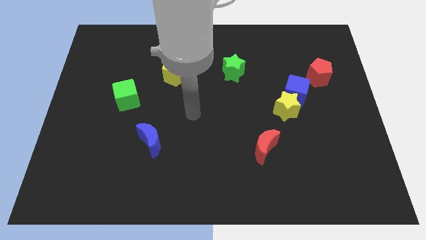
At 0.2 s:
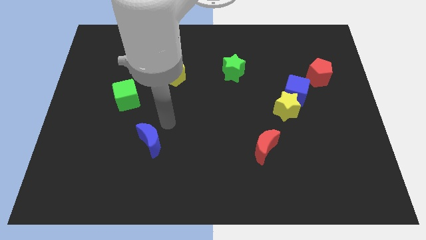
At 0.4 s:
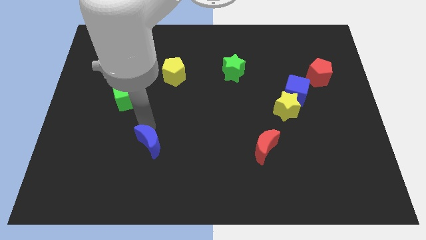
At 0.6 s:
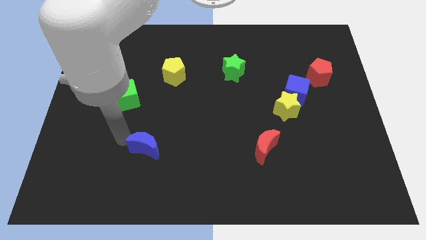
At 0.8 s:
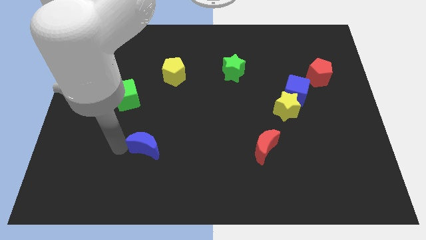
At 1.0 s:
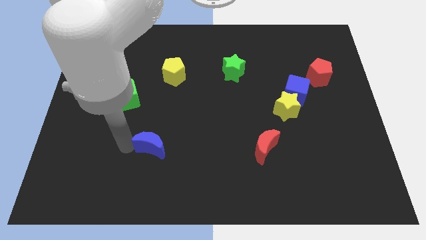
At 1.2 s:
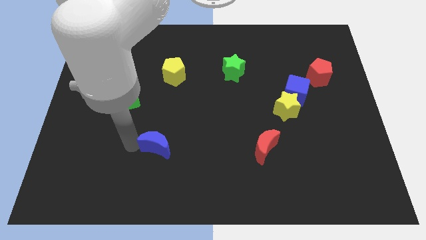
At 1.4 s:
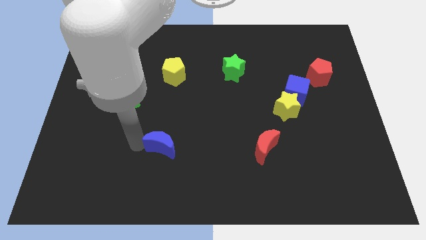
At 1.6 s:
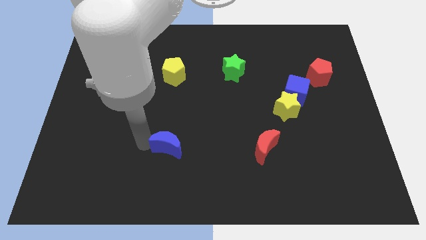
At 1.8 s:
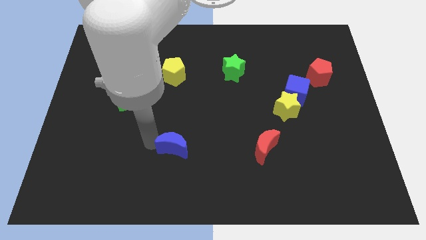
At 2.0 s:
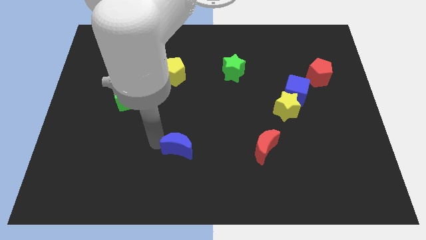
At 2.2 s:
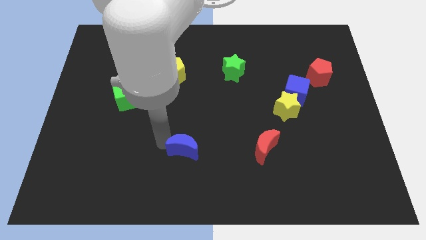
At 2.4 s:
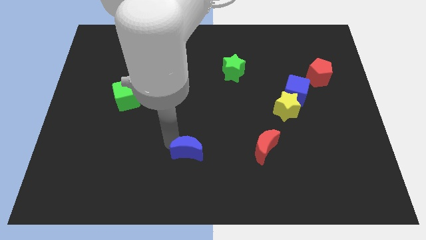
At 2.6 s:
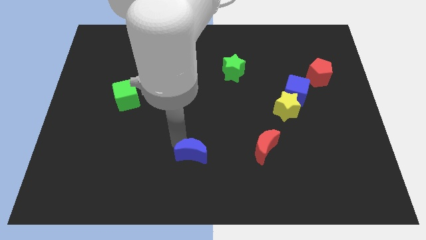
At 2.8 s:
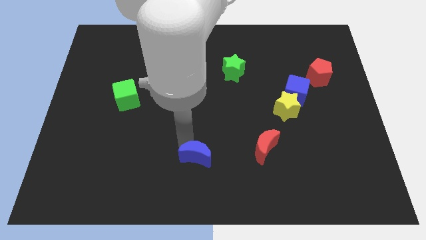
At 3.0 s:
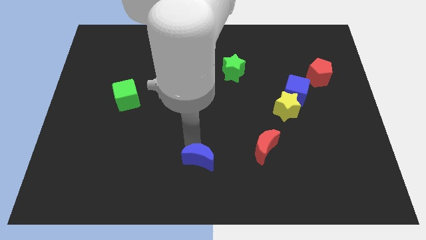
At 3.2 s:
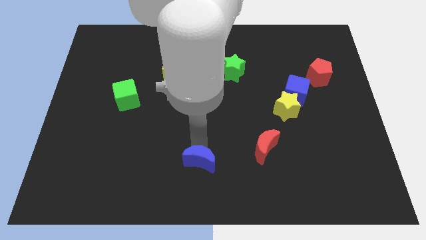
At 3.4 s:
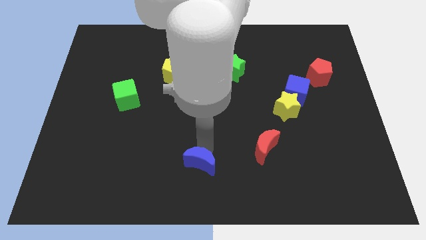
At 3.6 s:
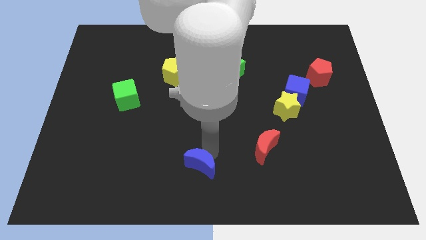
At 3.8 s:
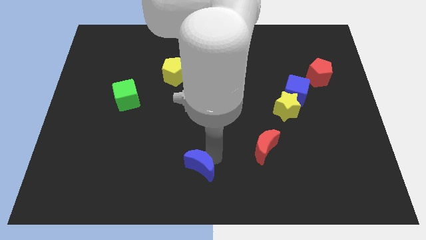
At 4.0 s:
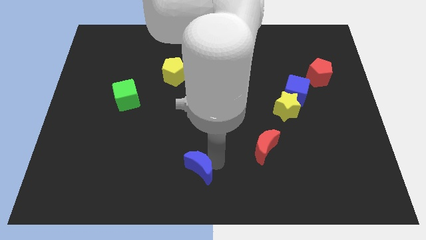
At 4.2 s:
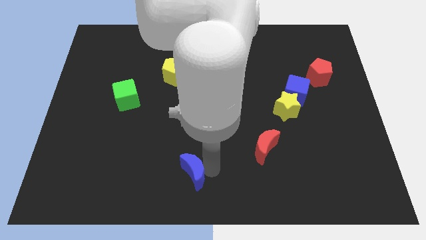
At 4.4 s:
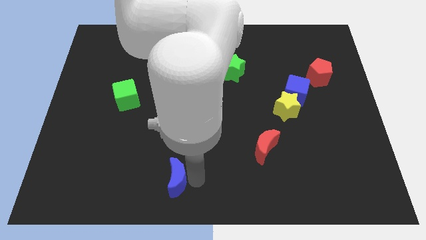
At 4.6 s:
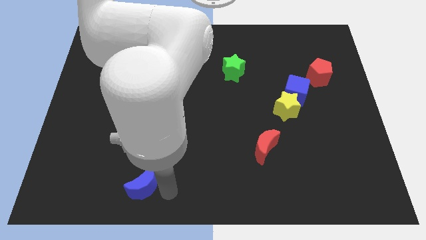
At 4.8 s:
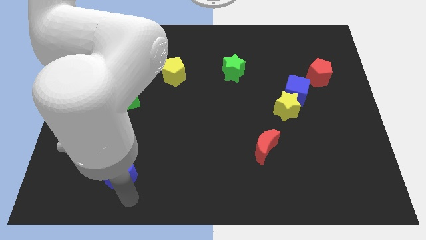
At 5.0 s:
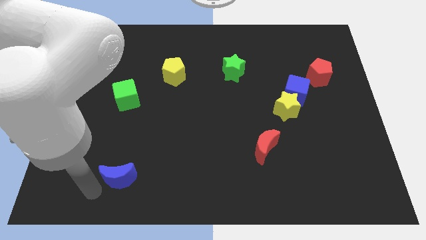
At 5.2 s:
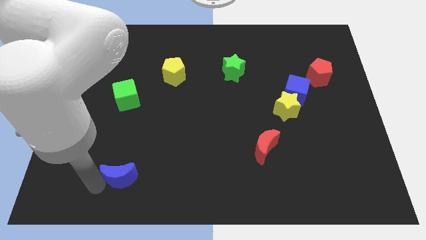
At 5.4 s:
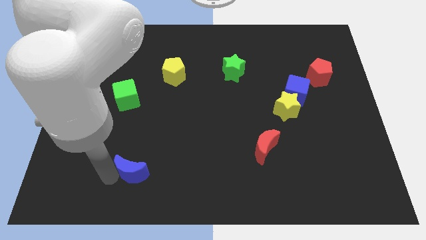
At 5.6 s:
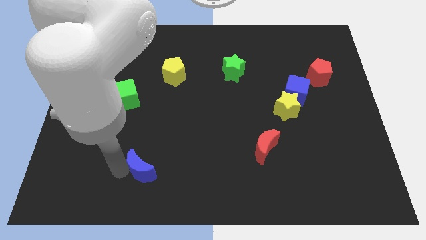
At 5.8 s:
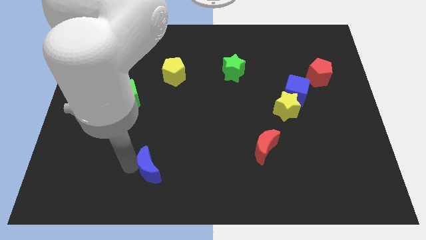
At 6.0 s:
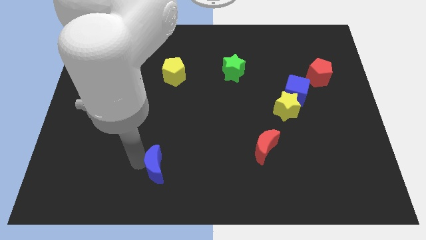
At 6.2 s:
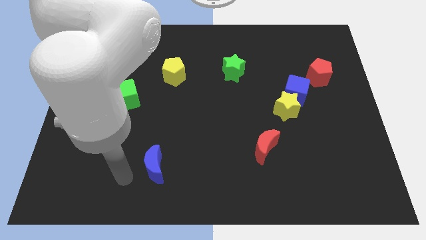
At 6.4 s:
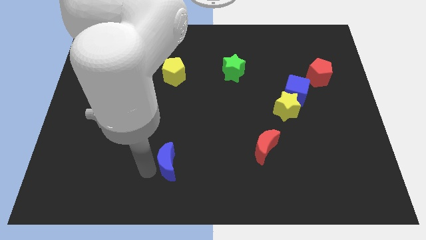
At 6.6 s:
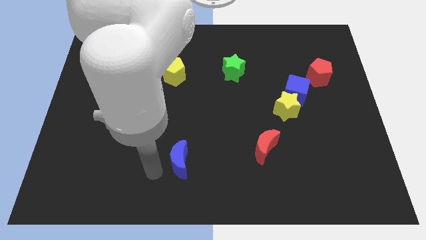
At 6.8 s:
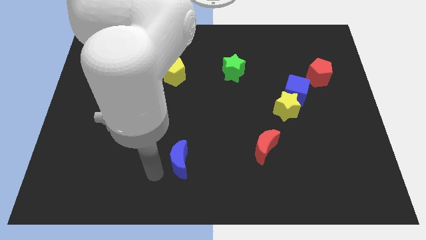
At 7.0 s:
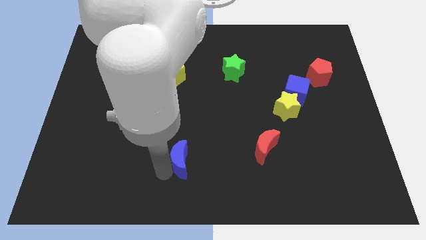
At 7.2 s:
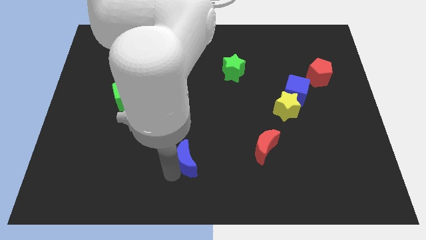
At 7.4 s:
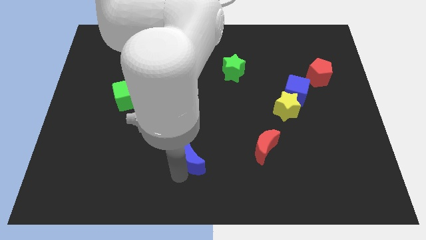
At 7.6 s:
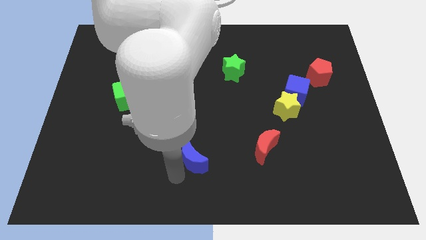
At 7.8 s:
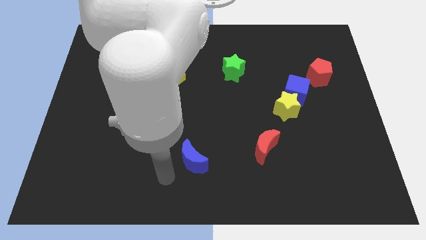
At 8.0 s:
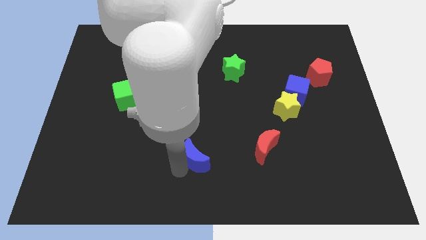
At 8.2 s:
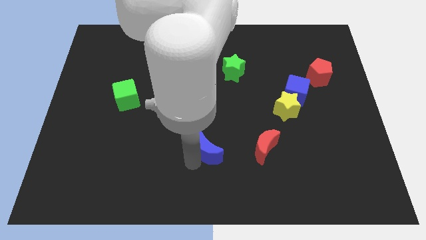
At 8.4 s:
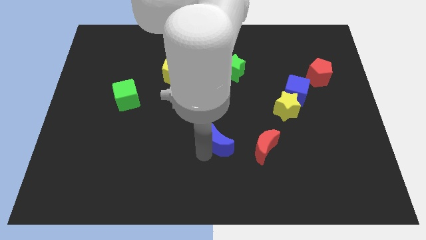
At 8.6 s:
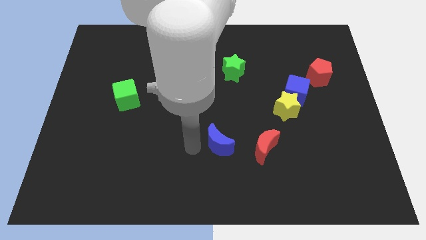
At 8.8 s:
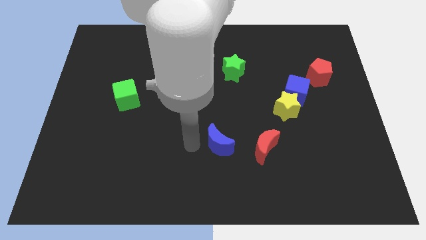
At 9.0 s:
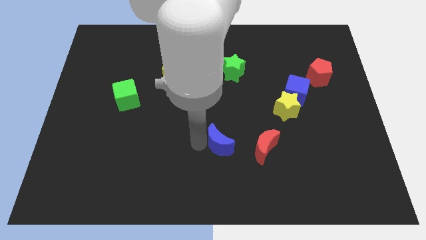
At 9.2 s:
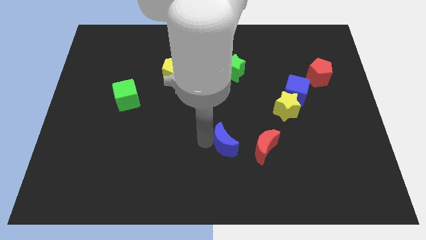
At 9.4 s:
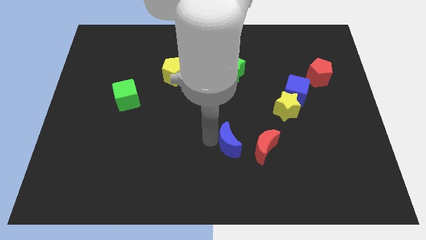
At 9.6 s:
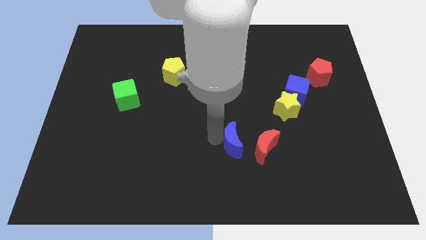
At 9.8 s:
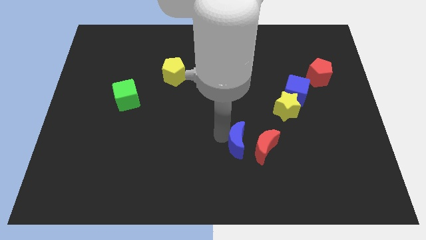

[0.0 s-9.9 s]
push the blue moon towards the red moon

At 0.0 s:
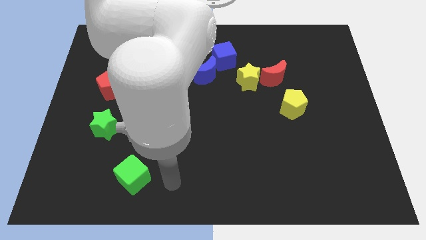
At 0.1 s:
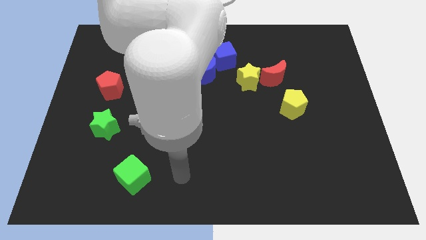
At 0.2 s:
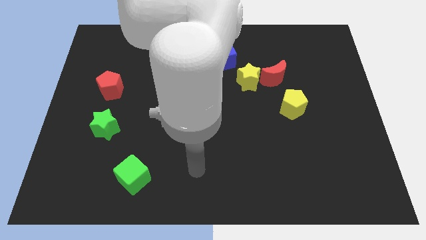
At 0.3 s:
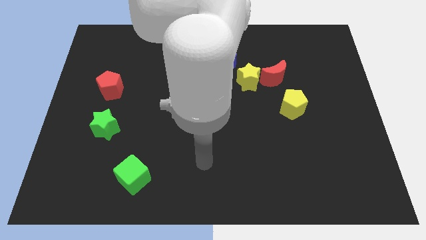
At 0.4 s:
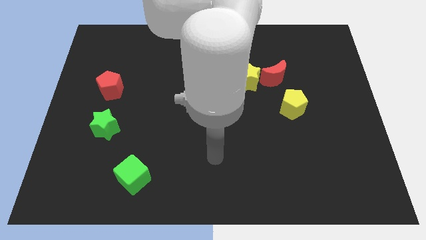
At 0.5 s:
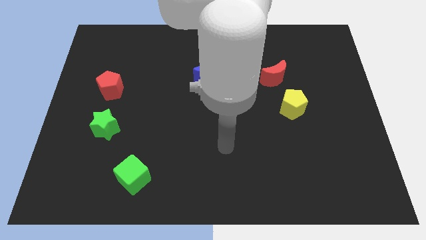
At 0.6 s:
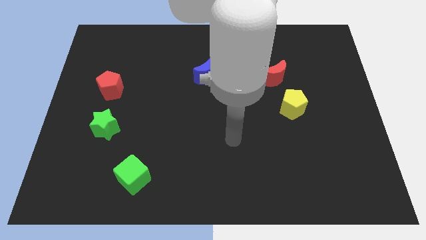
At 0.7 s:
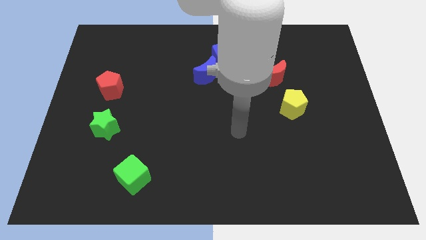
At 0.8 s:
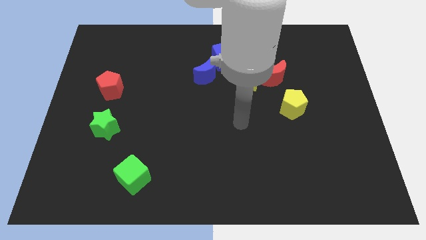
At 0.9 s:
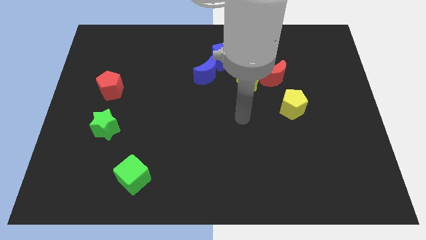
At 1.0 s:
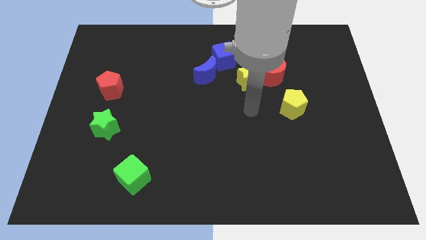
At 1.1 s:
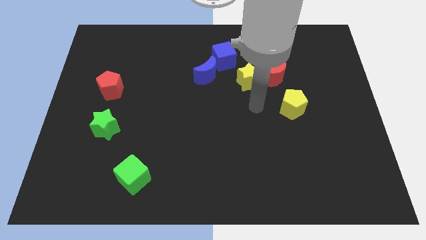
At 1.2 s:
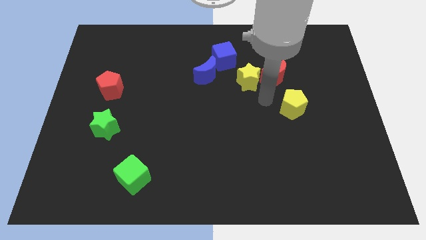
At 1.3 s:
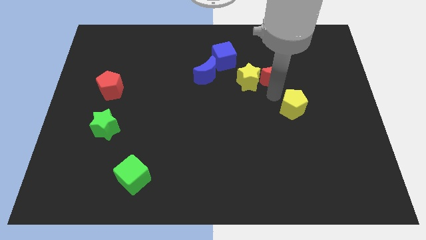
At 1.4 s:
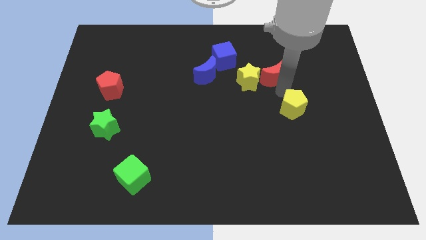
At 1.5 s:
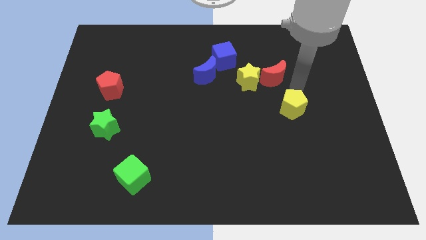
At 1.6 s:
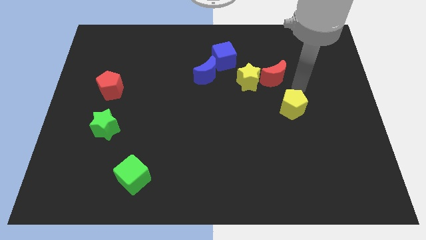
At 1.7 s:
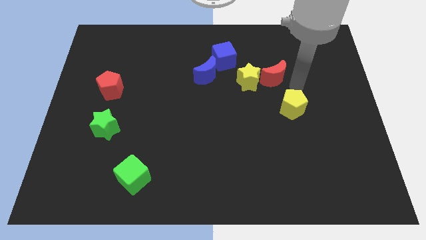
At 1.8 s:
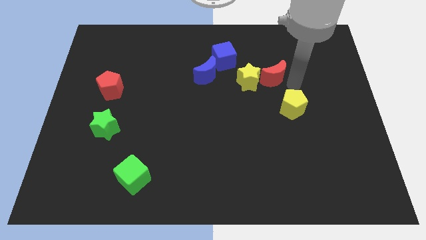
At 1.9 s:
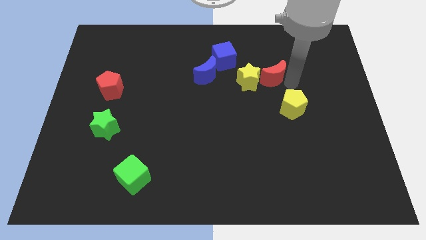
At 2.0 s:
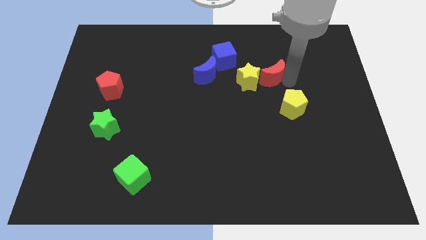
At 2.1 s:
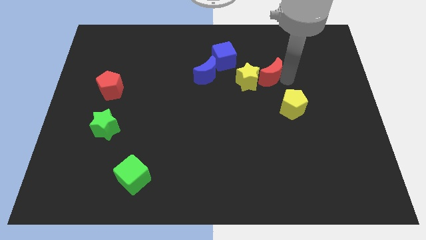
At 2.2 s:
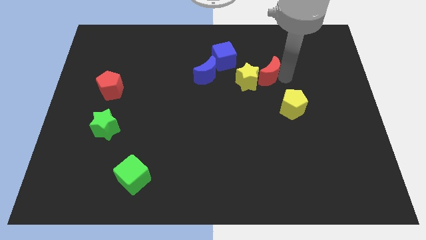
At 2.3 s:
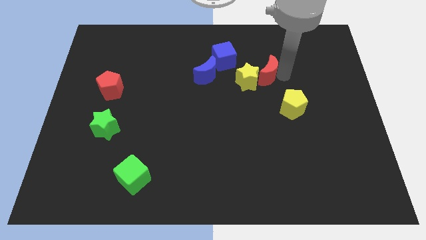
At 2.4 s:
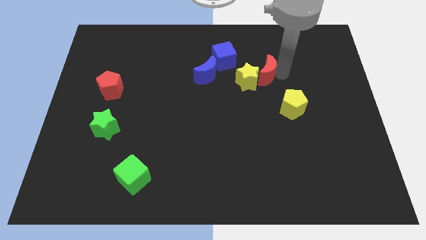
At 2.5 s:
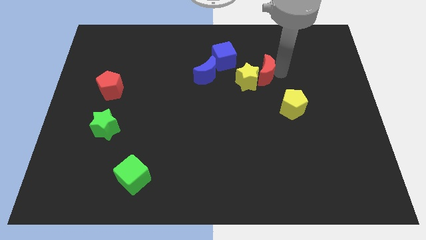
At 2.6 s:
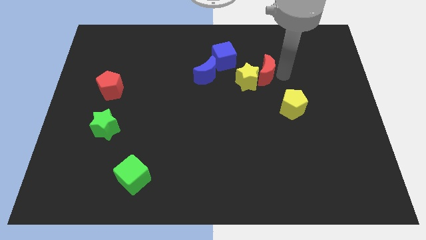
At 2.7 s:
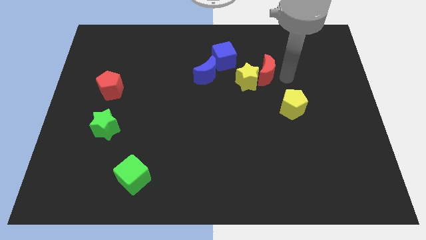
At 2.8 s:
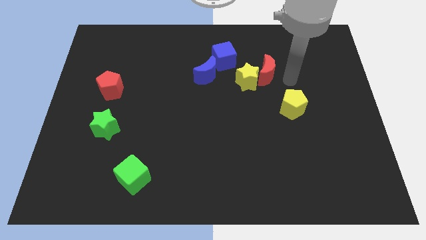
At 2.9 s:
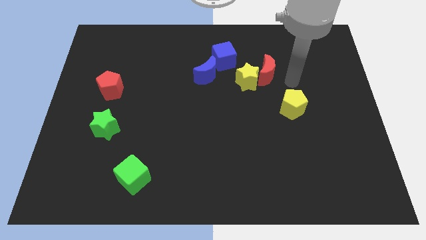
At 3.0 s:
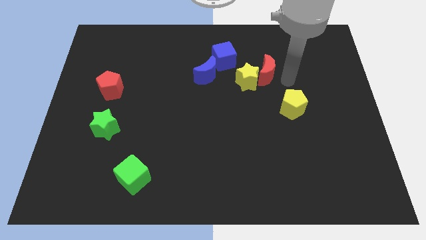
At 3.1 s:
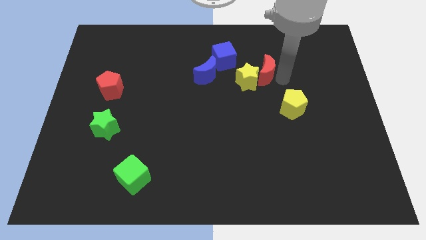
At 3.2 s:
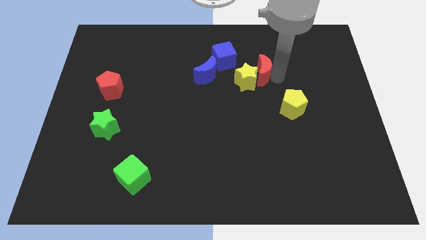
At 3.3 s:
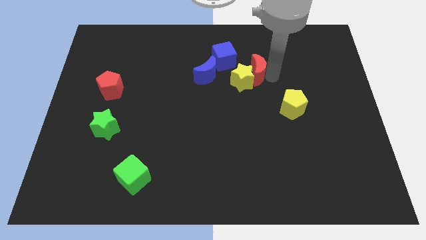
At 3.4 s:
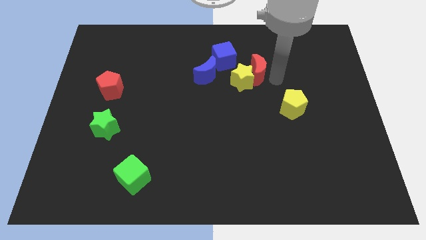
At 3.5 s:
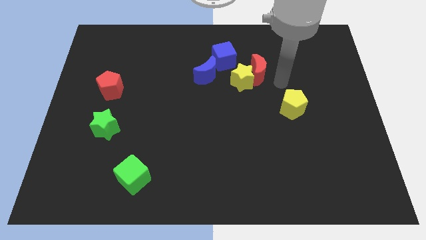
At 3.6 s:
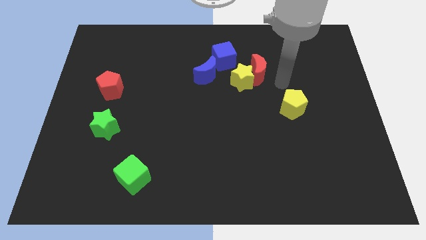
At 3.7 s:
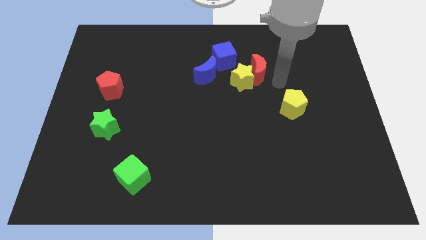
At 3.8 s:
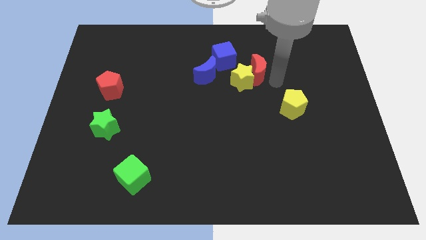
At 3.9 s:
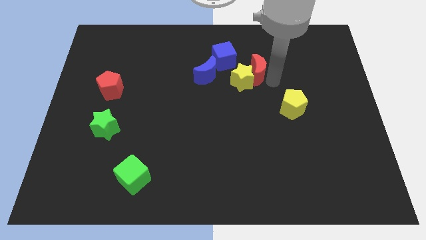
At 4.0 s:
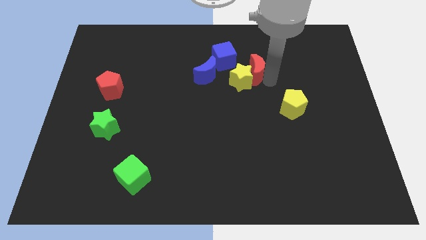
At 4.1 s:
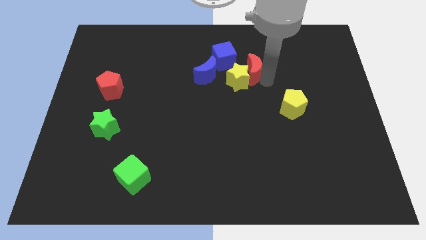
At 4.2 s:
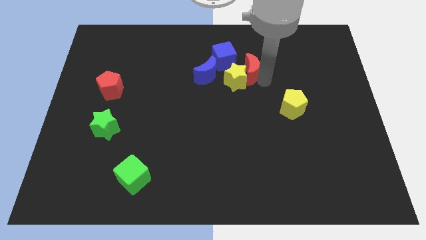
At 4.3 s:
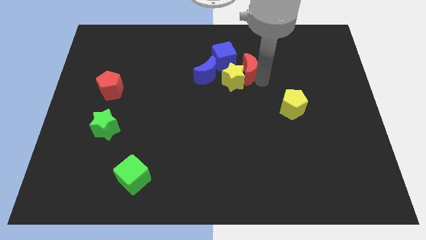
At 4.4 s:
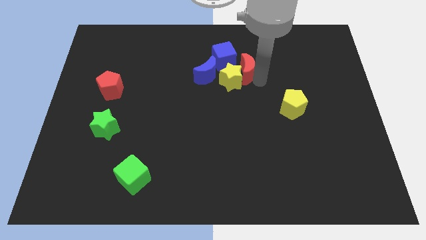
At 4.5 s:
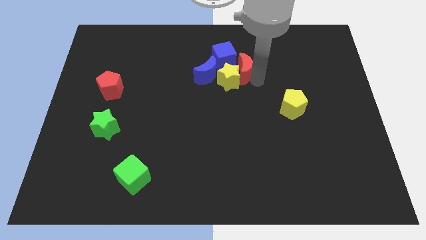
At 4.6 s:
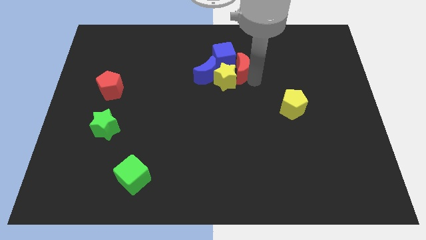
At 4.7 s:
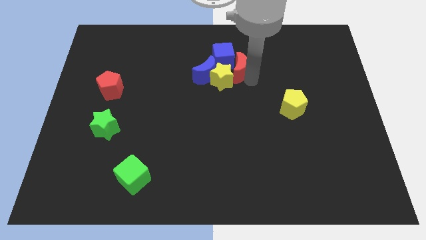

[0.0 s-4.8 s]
push the red moon next to the blue cube
